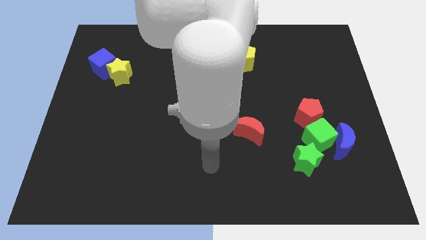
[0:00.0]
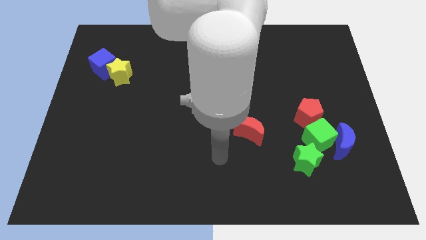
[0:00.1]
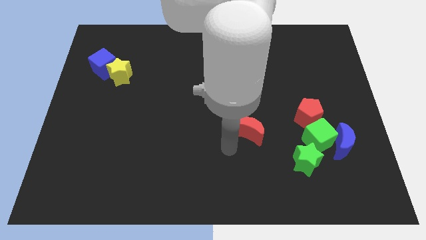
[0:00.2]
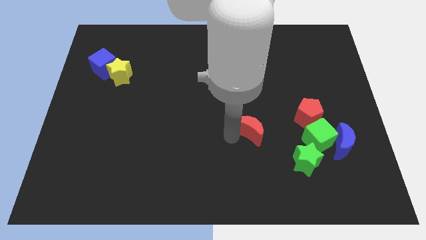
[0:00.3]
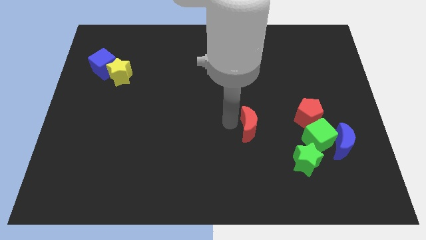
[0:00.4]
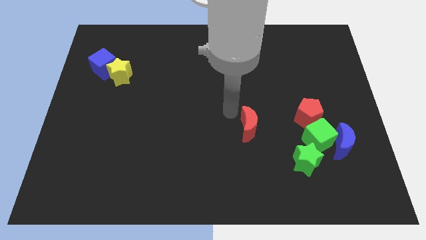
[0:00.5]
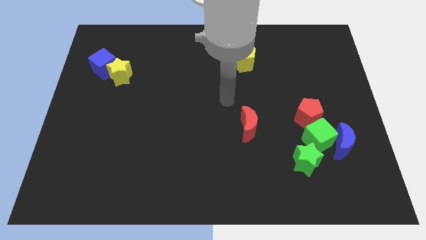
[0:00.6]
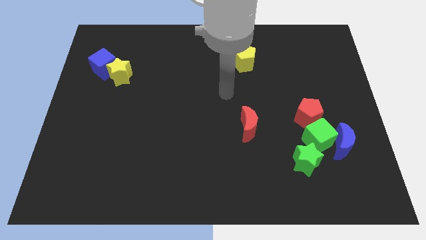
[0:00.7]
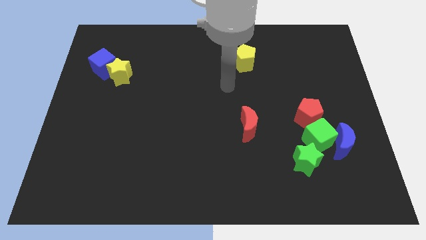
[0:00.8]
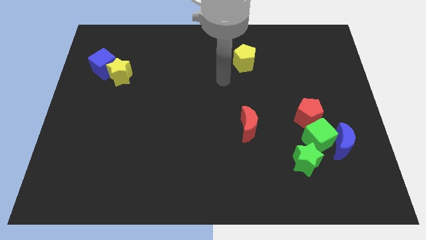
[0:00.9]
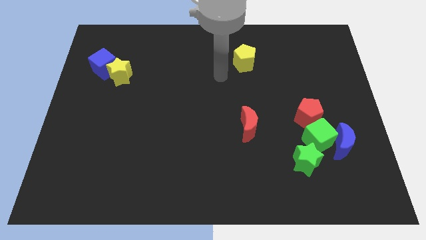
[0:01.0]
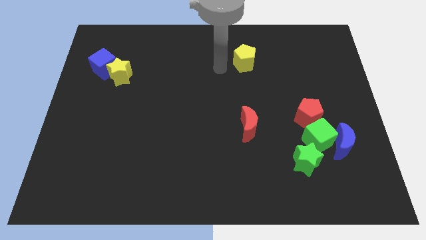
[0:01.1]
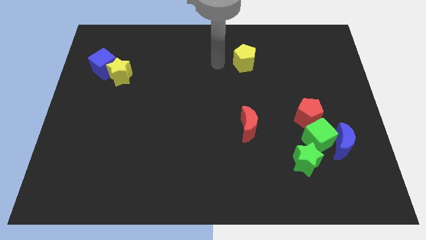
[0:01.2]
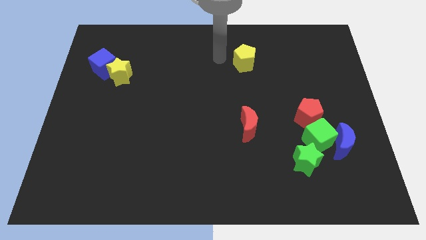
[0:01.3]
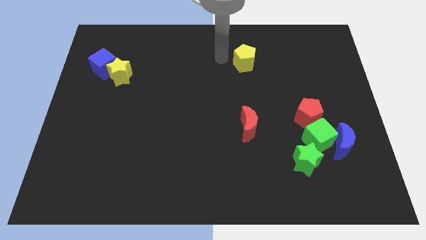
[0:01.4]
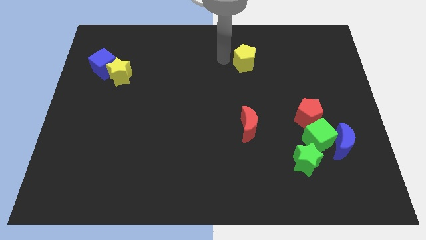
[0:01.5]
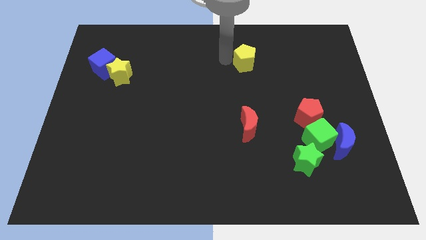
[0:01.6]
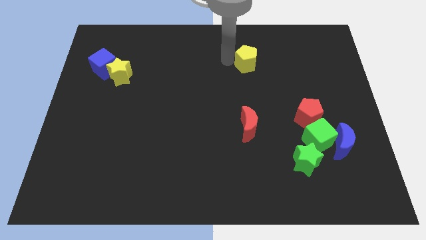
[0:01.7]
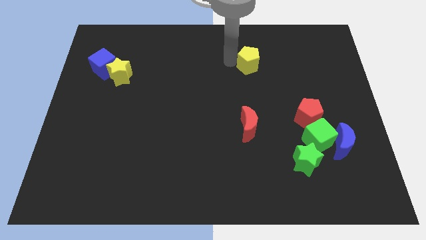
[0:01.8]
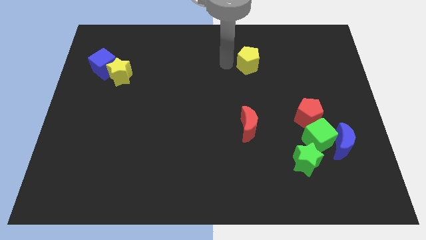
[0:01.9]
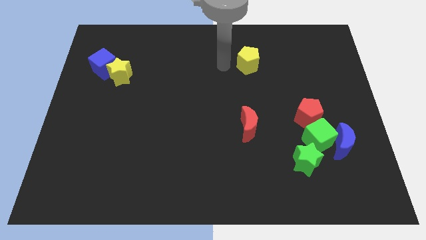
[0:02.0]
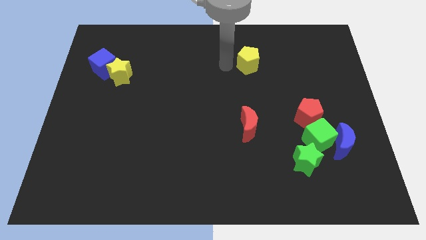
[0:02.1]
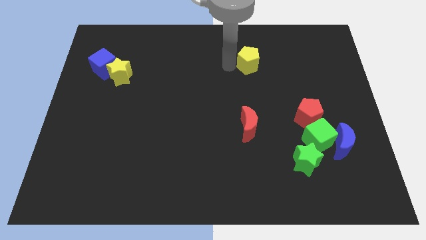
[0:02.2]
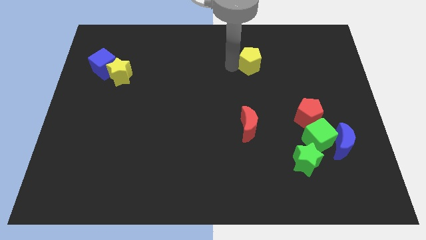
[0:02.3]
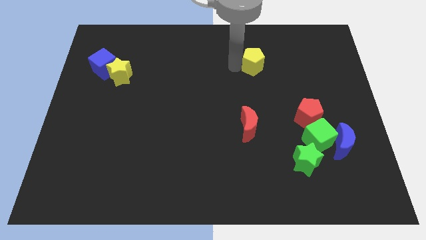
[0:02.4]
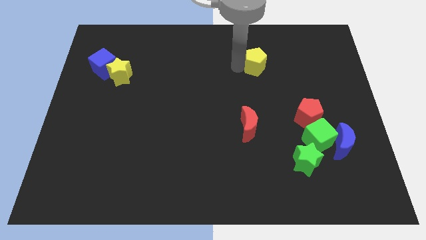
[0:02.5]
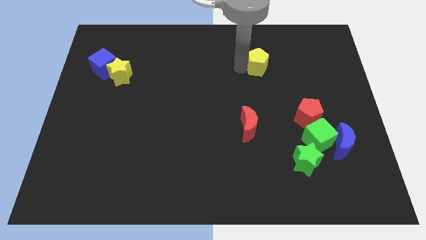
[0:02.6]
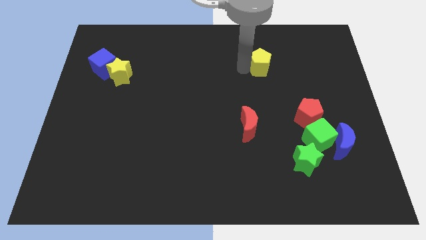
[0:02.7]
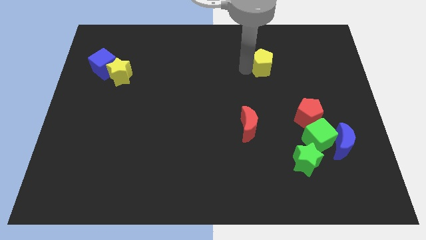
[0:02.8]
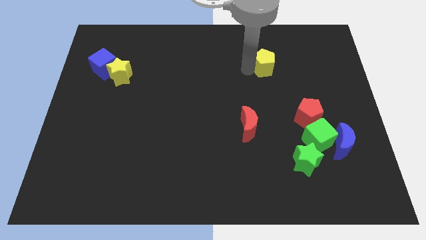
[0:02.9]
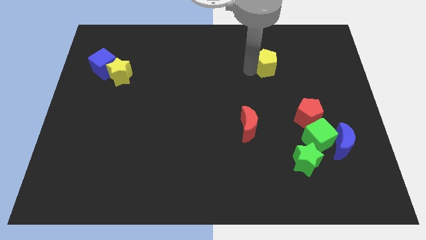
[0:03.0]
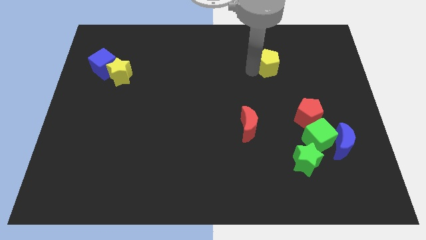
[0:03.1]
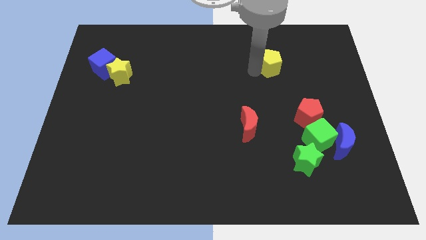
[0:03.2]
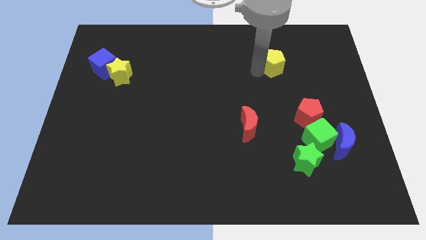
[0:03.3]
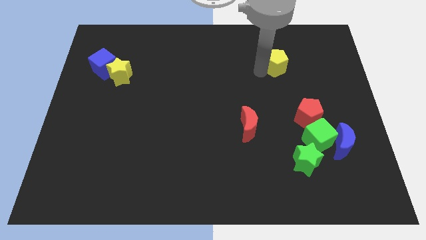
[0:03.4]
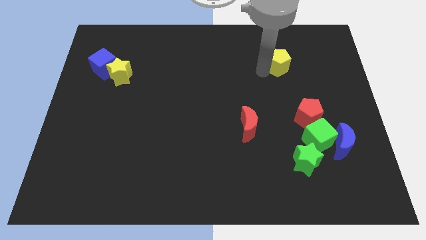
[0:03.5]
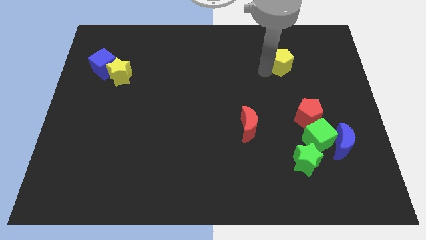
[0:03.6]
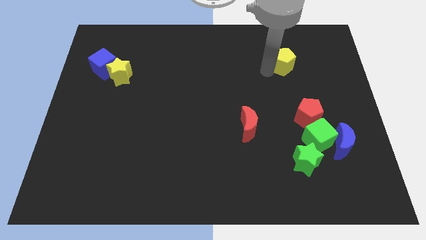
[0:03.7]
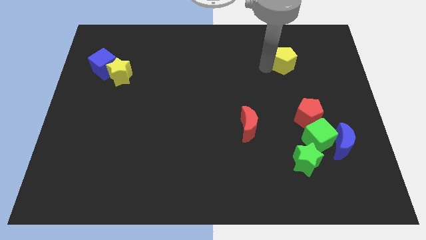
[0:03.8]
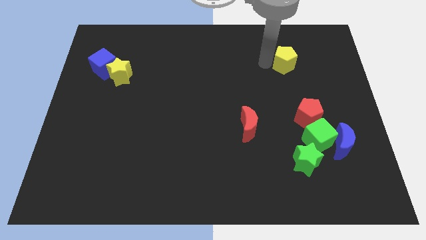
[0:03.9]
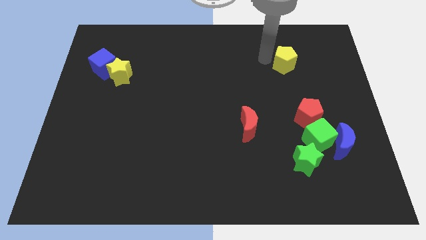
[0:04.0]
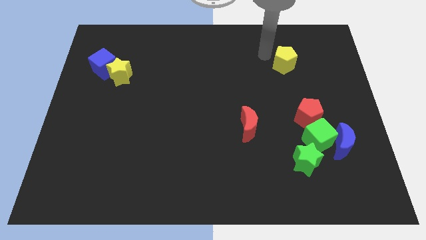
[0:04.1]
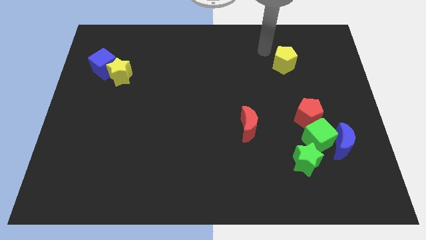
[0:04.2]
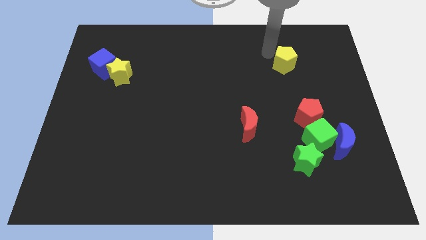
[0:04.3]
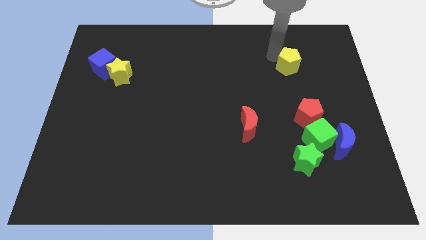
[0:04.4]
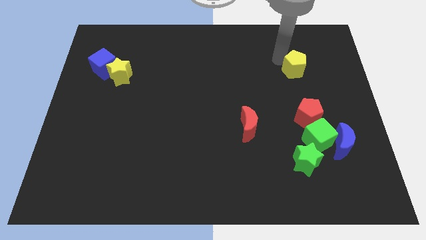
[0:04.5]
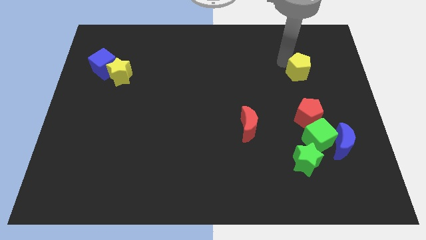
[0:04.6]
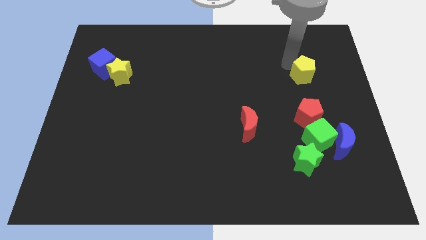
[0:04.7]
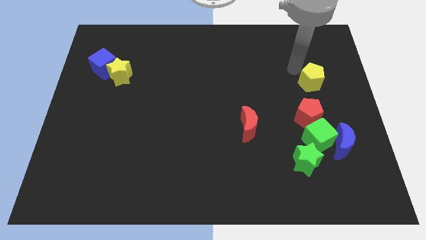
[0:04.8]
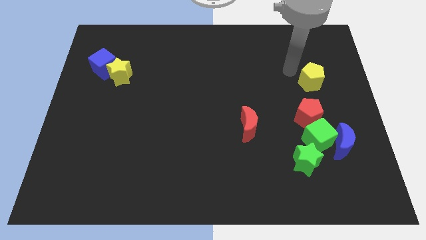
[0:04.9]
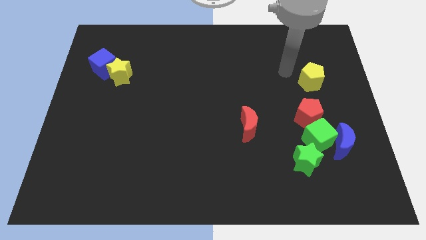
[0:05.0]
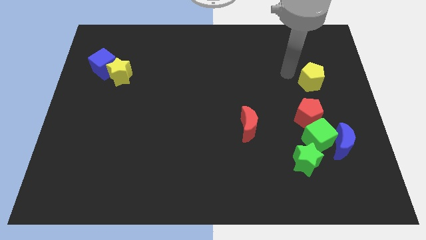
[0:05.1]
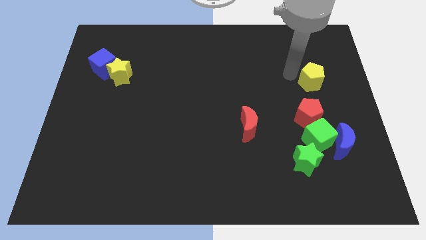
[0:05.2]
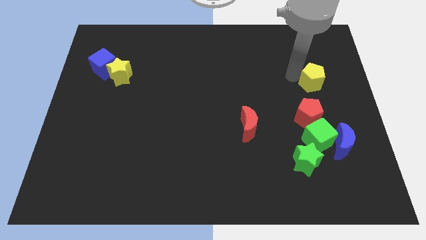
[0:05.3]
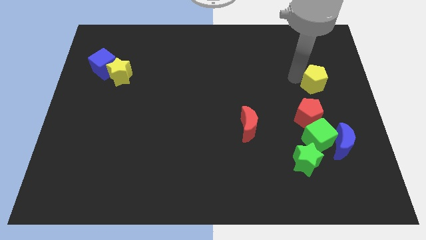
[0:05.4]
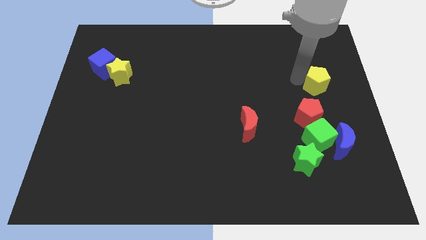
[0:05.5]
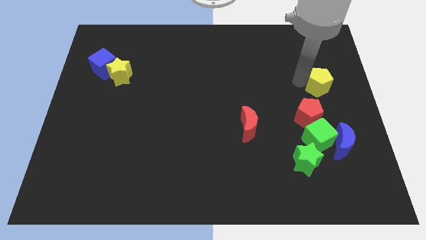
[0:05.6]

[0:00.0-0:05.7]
push the yellow pentagon to the right side of the board
